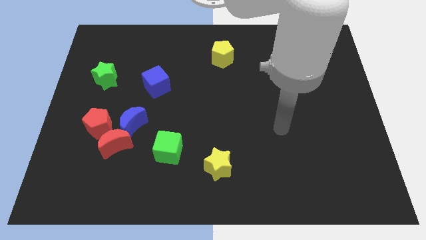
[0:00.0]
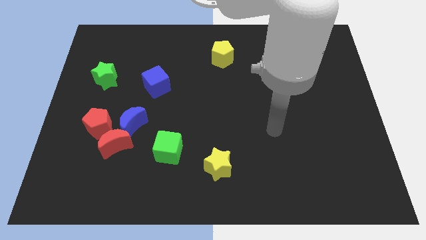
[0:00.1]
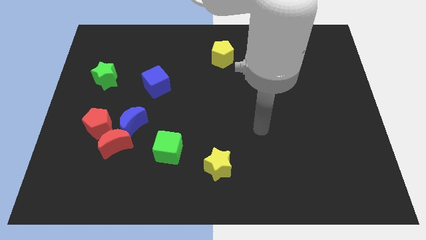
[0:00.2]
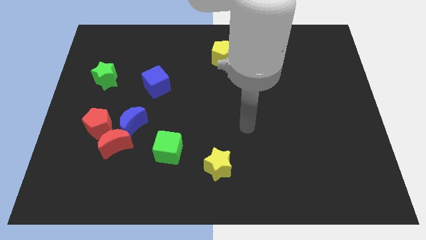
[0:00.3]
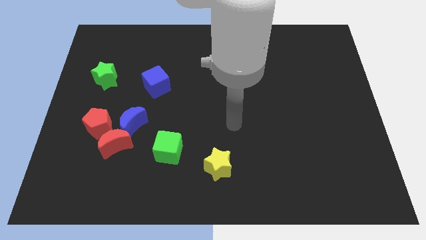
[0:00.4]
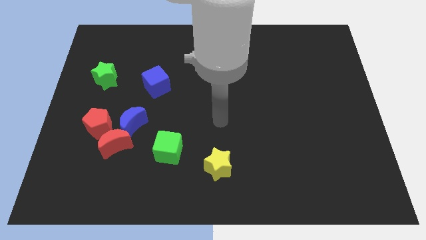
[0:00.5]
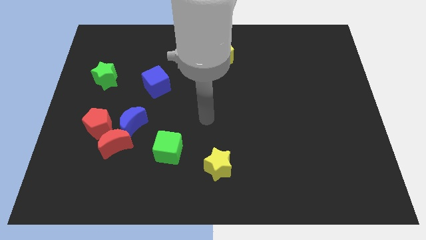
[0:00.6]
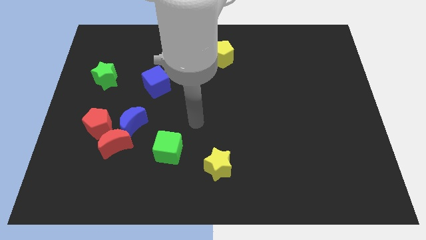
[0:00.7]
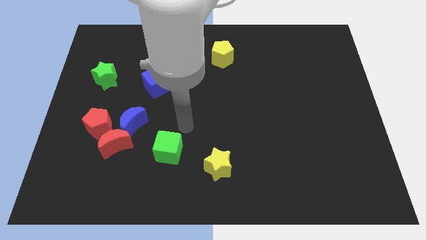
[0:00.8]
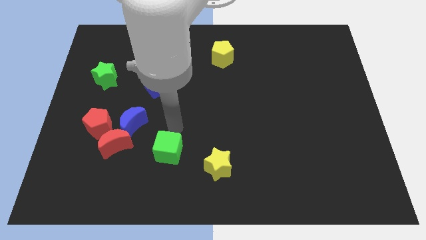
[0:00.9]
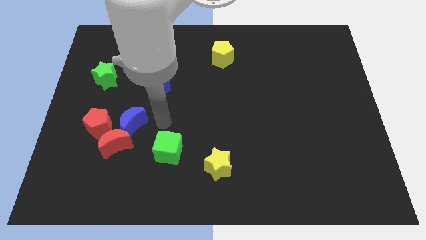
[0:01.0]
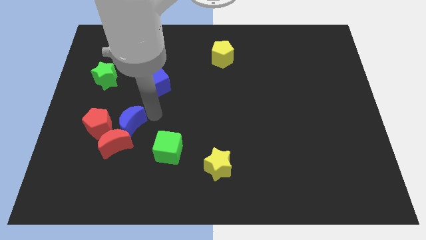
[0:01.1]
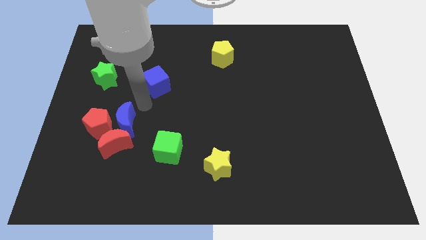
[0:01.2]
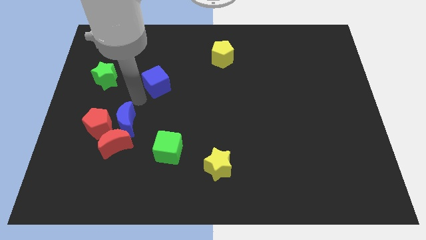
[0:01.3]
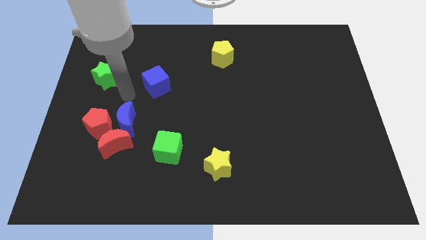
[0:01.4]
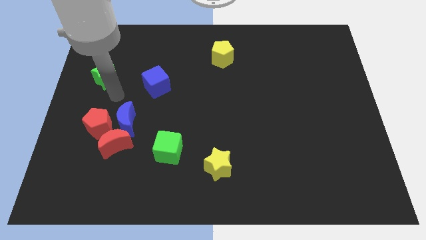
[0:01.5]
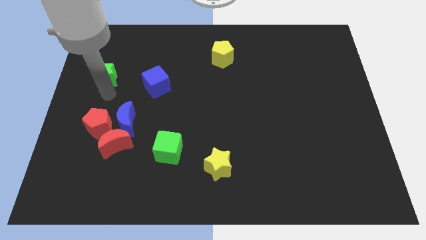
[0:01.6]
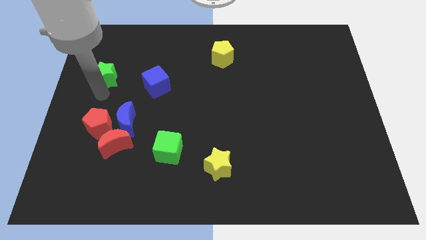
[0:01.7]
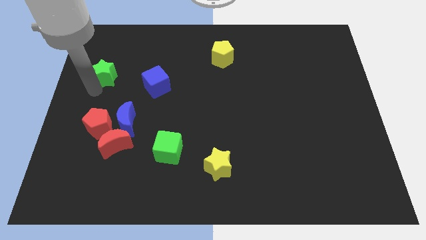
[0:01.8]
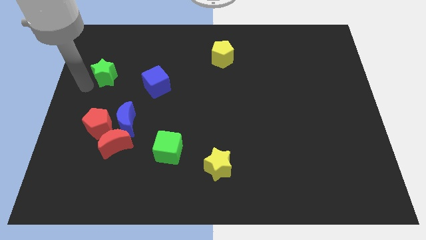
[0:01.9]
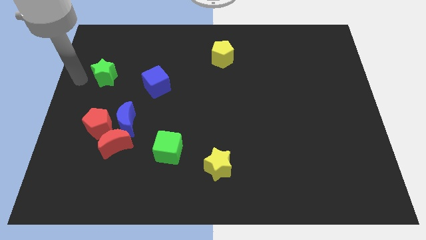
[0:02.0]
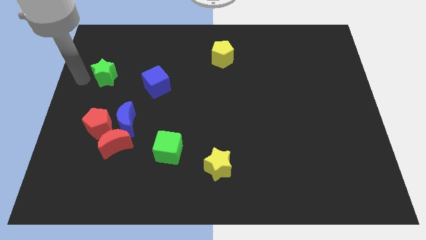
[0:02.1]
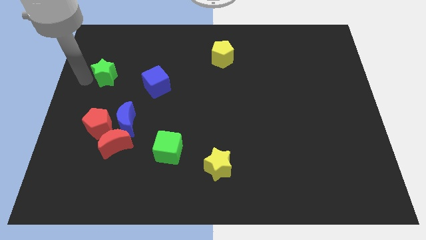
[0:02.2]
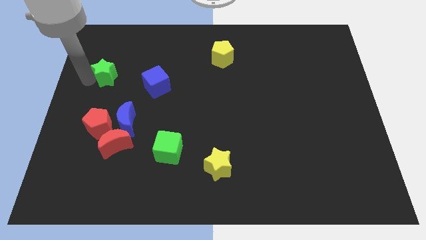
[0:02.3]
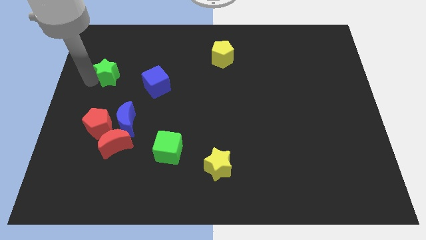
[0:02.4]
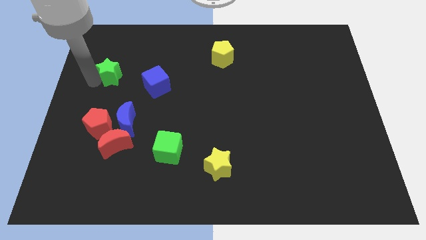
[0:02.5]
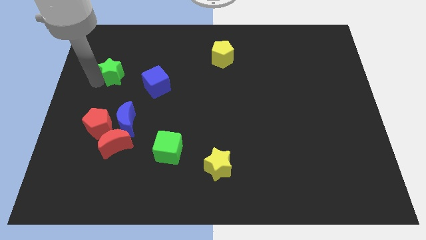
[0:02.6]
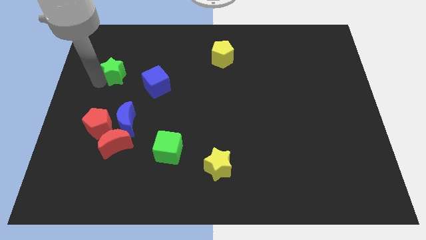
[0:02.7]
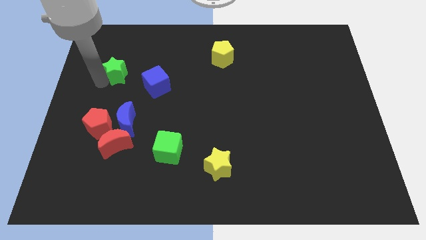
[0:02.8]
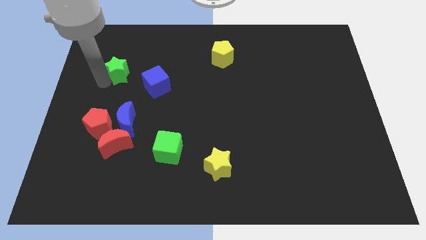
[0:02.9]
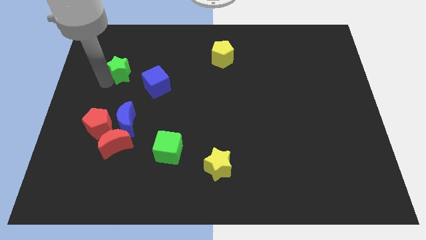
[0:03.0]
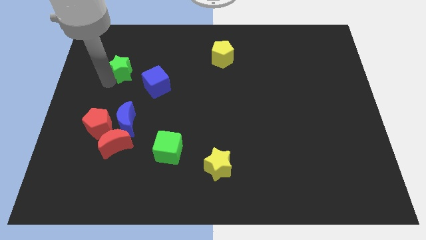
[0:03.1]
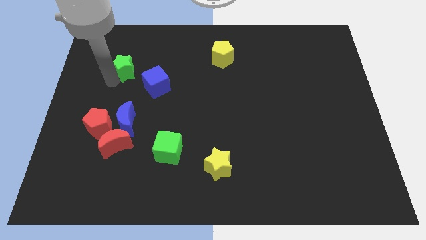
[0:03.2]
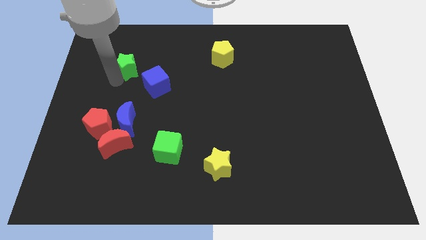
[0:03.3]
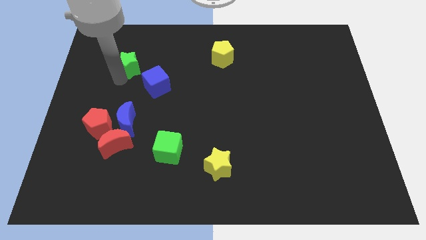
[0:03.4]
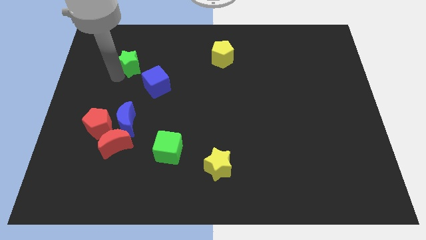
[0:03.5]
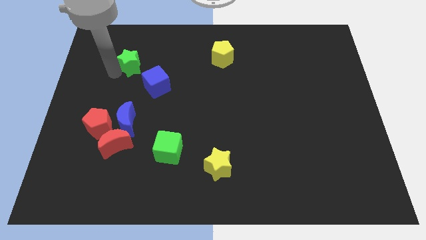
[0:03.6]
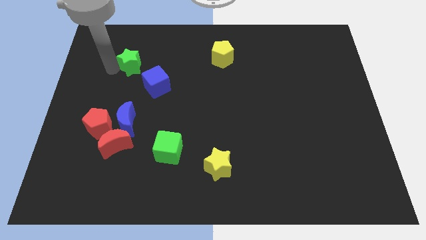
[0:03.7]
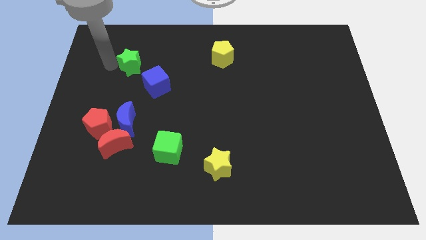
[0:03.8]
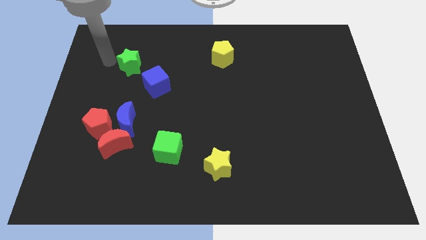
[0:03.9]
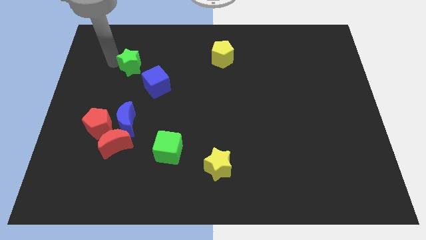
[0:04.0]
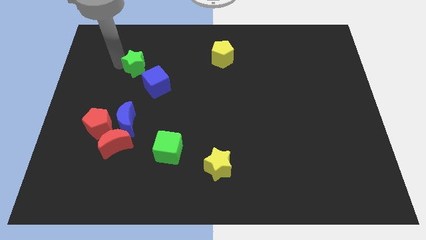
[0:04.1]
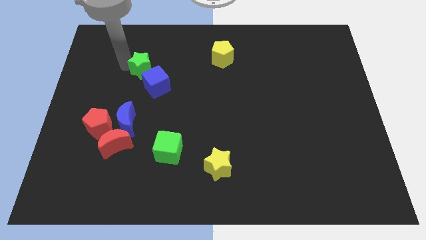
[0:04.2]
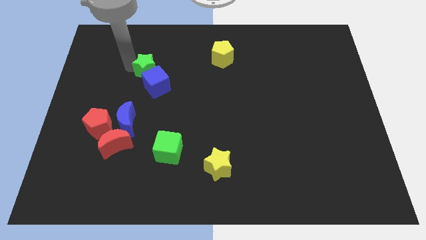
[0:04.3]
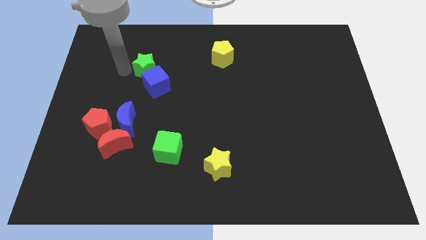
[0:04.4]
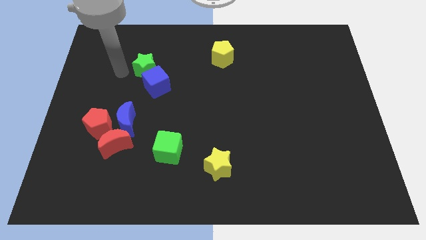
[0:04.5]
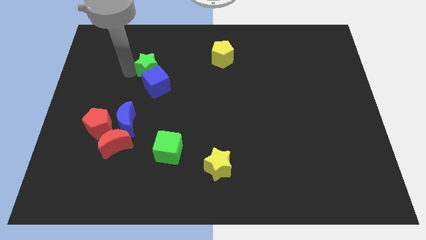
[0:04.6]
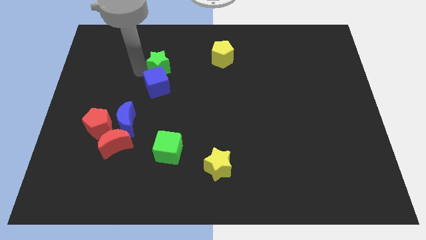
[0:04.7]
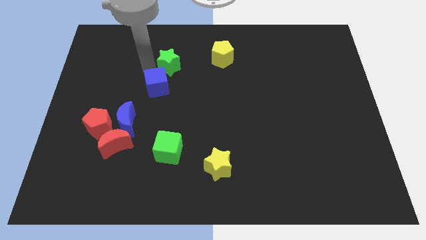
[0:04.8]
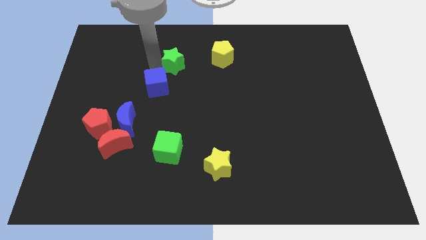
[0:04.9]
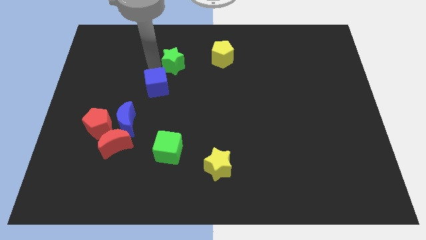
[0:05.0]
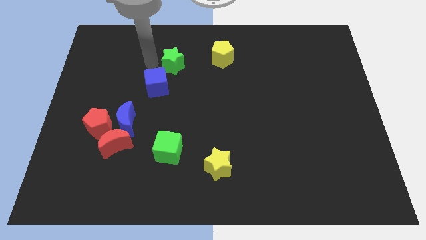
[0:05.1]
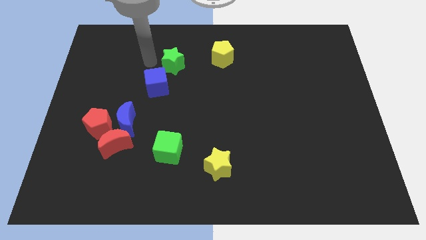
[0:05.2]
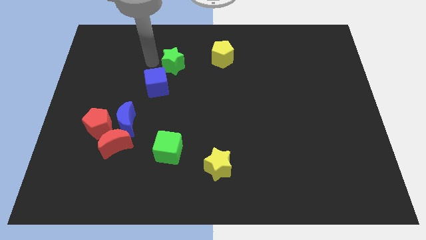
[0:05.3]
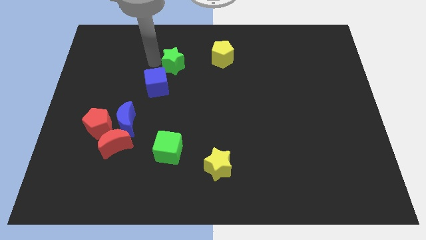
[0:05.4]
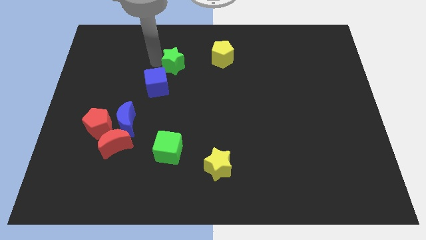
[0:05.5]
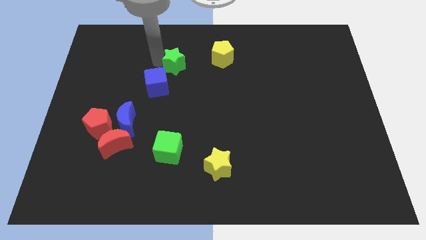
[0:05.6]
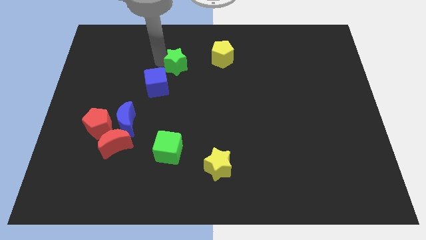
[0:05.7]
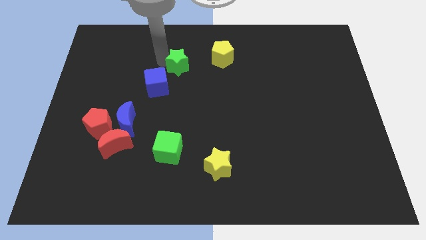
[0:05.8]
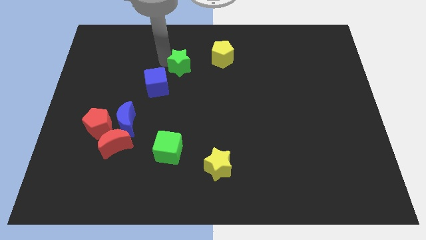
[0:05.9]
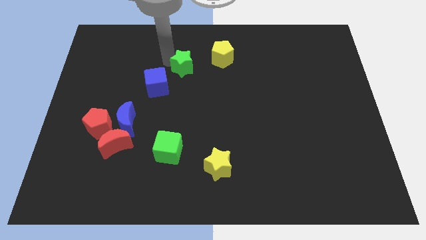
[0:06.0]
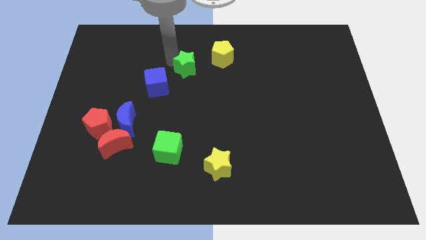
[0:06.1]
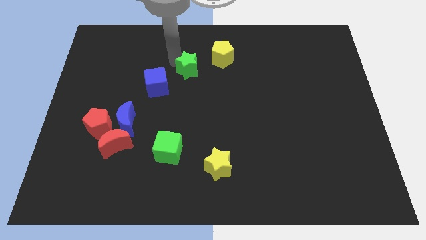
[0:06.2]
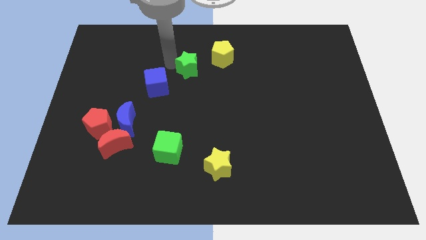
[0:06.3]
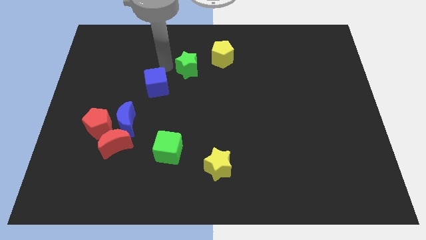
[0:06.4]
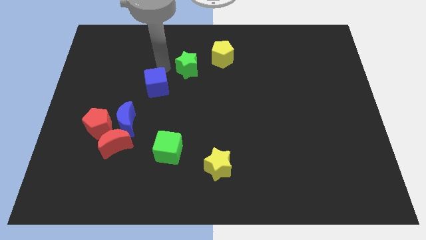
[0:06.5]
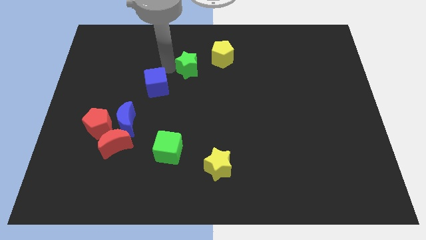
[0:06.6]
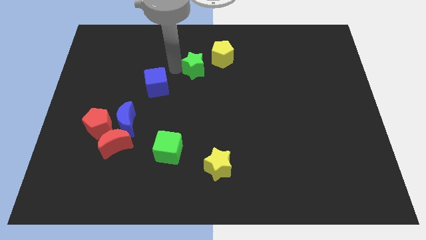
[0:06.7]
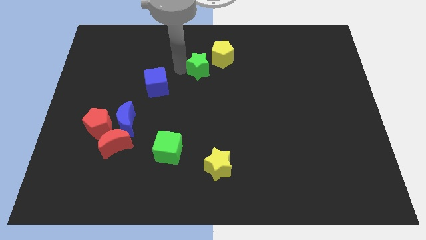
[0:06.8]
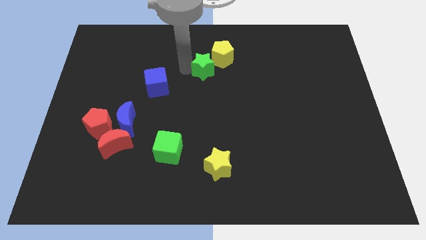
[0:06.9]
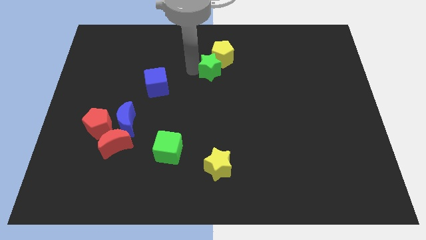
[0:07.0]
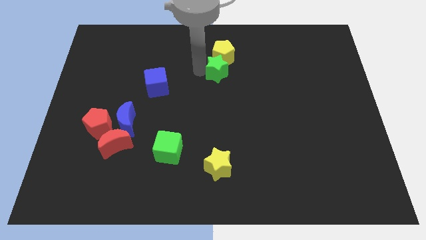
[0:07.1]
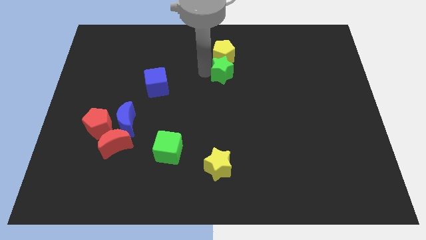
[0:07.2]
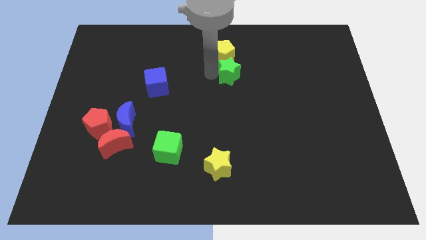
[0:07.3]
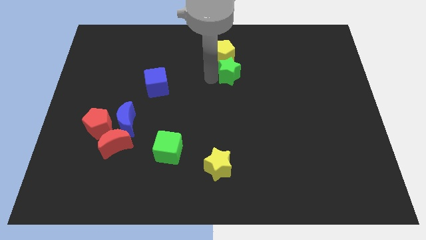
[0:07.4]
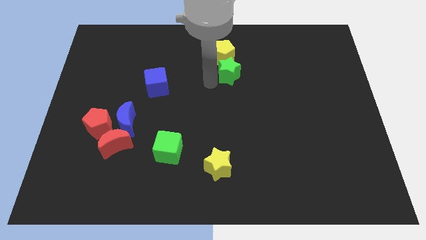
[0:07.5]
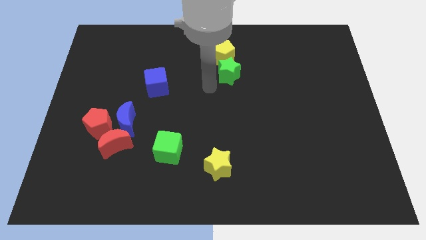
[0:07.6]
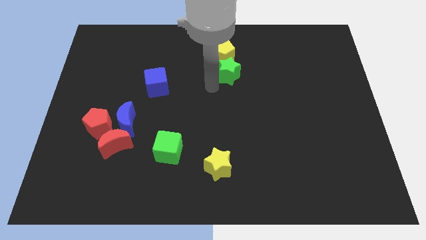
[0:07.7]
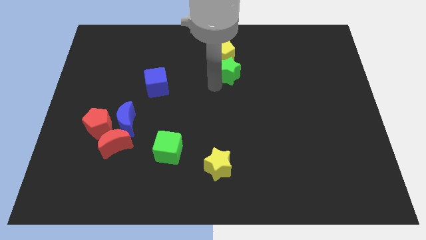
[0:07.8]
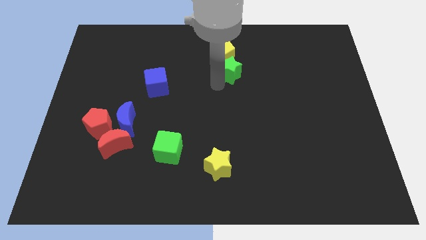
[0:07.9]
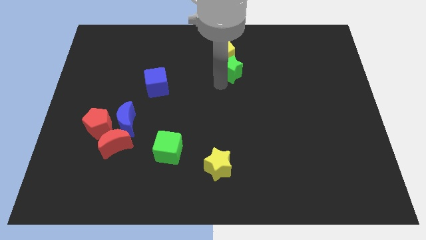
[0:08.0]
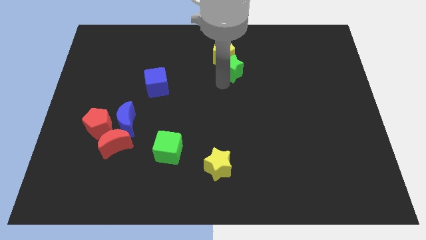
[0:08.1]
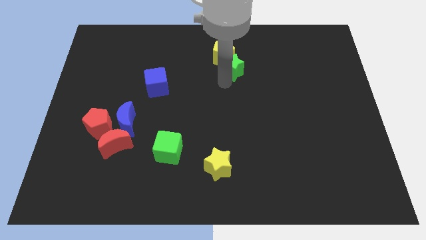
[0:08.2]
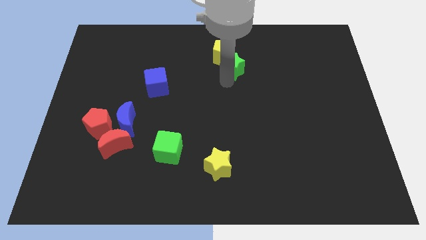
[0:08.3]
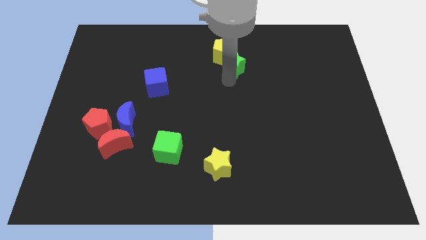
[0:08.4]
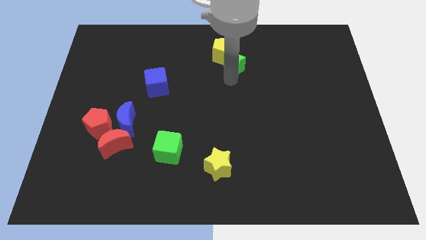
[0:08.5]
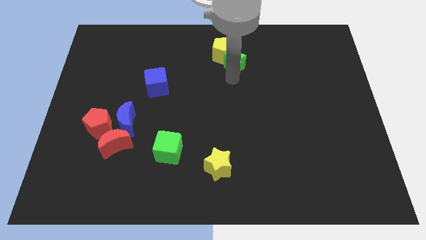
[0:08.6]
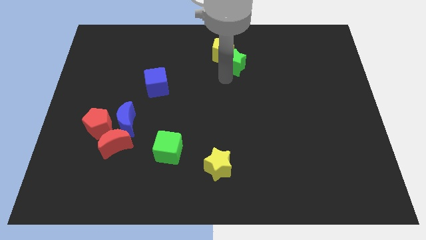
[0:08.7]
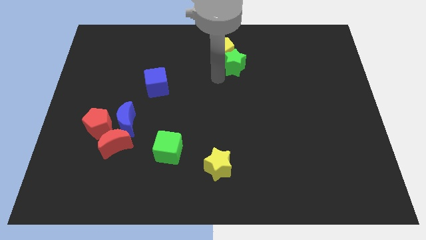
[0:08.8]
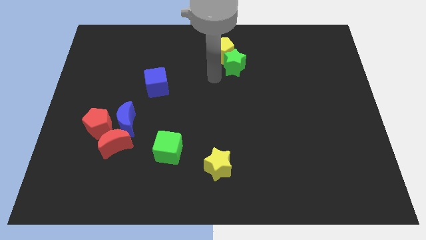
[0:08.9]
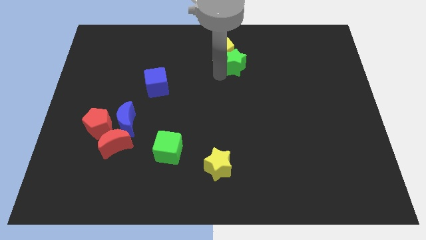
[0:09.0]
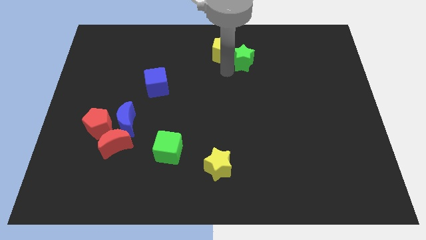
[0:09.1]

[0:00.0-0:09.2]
put the green star to the right of the yellow pentagon
